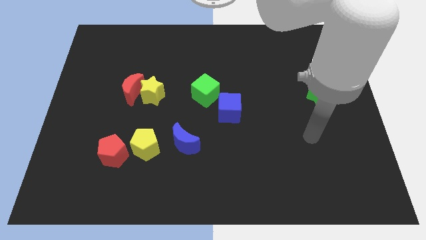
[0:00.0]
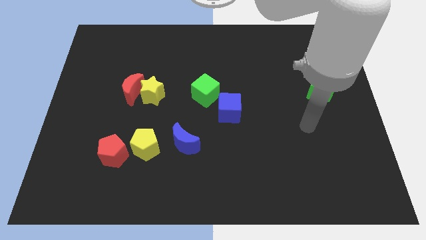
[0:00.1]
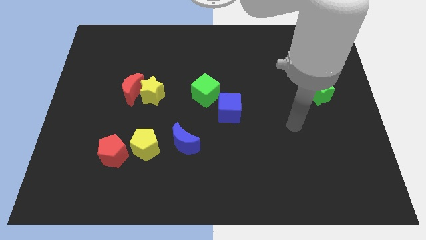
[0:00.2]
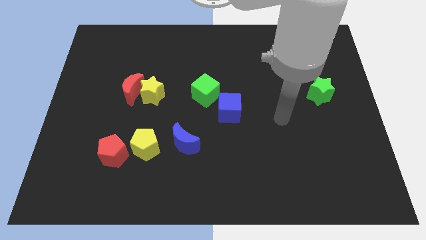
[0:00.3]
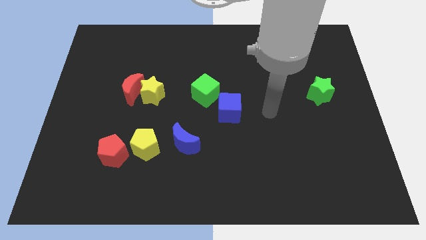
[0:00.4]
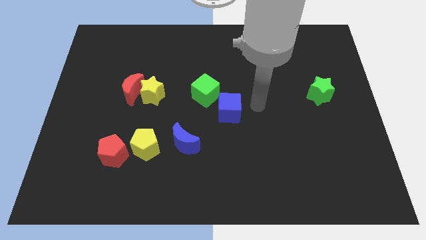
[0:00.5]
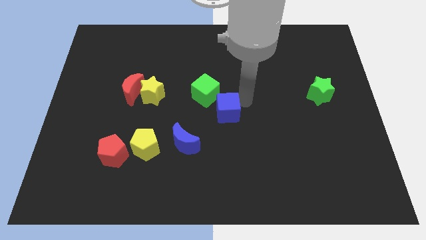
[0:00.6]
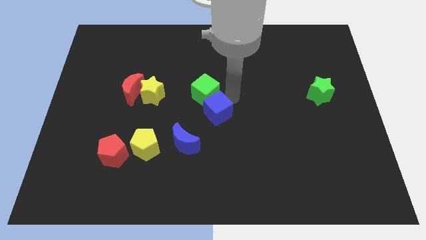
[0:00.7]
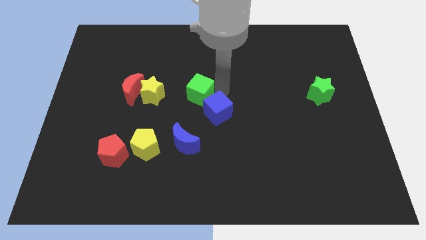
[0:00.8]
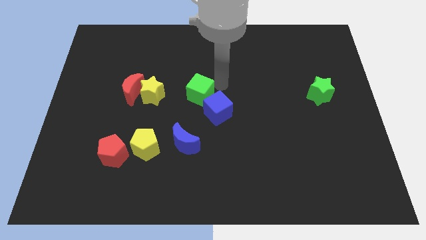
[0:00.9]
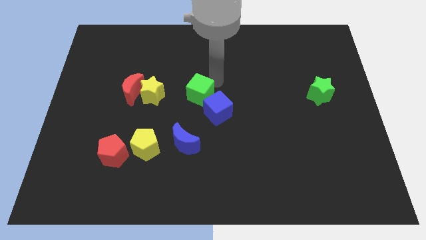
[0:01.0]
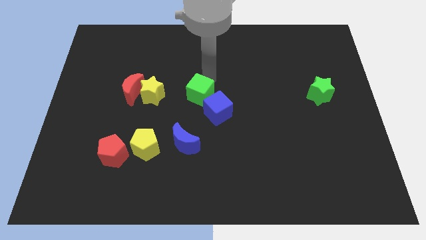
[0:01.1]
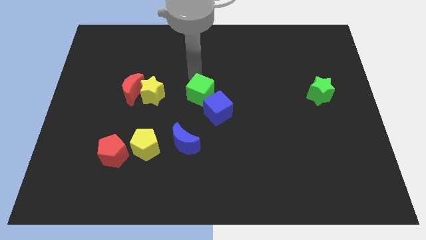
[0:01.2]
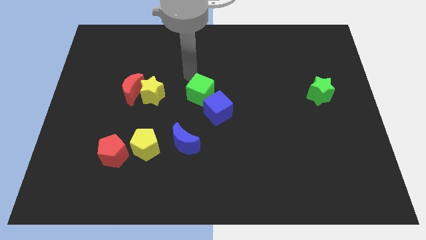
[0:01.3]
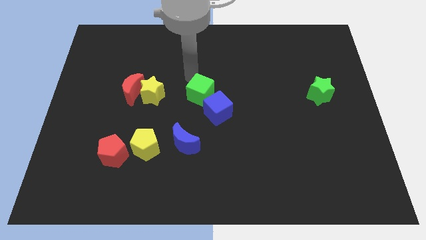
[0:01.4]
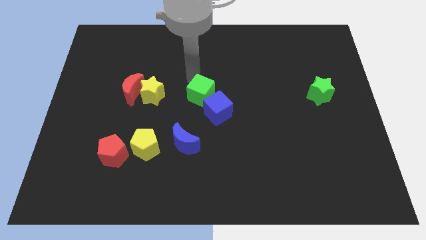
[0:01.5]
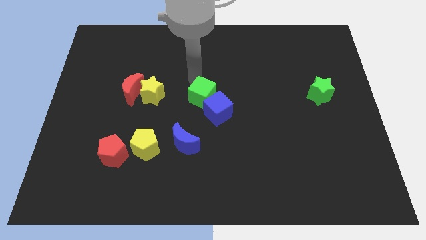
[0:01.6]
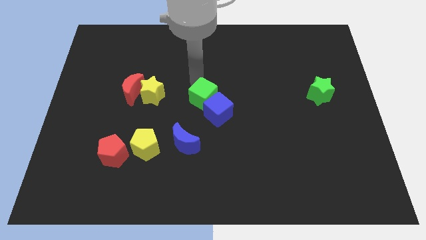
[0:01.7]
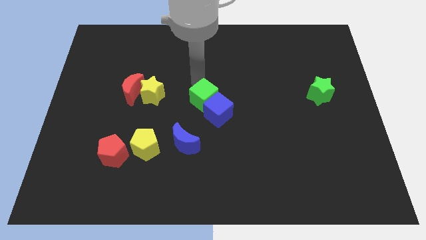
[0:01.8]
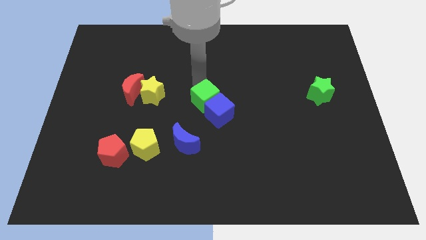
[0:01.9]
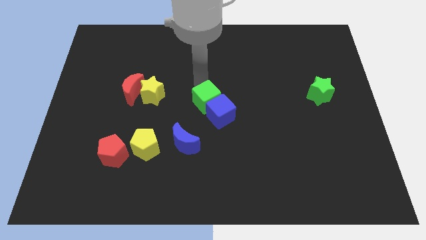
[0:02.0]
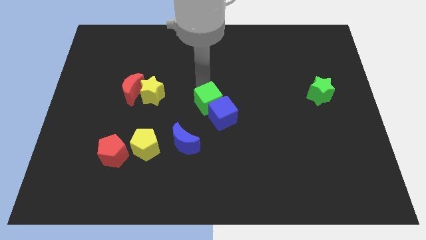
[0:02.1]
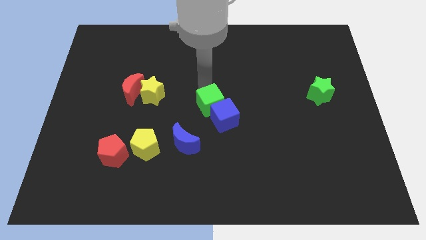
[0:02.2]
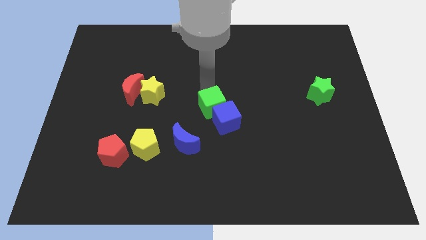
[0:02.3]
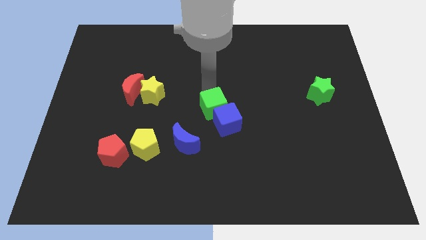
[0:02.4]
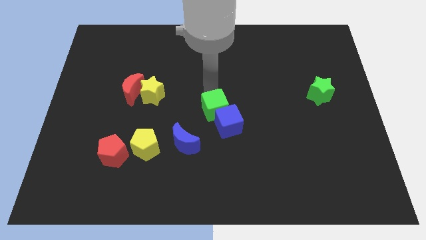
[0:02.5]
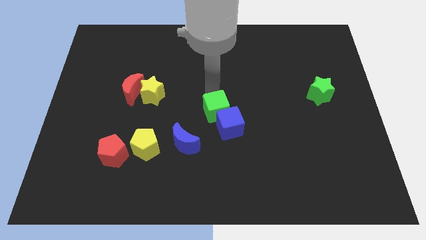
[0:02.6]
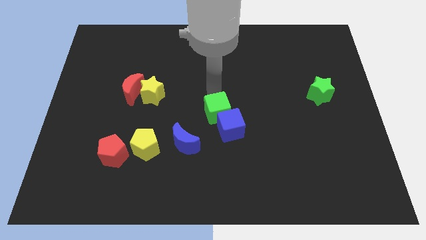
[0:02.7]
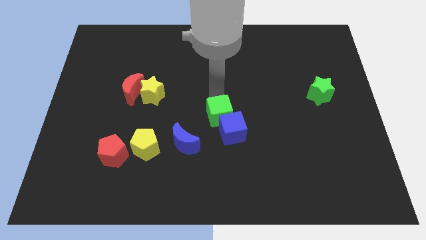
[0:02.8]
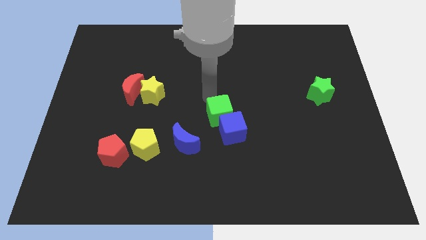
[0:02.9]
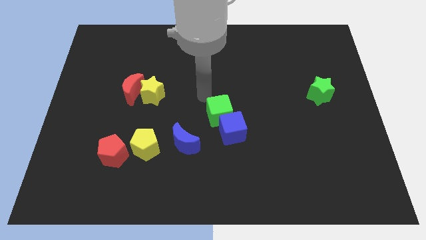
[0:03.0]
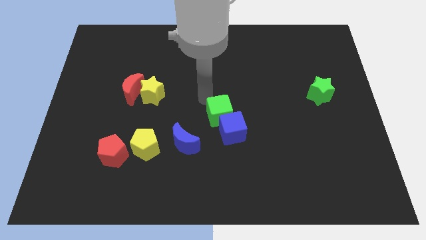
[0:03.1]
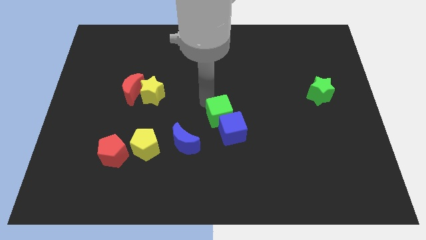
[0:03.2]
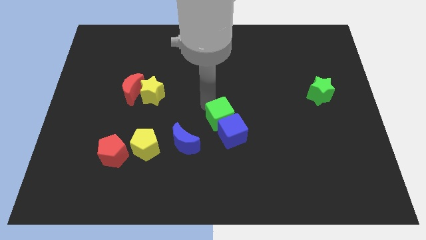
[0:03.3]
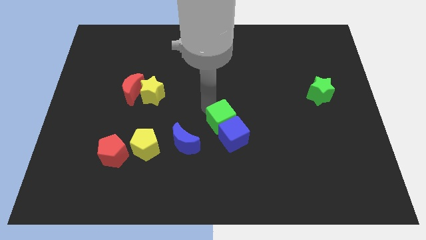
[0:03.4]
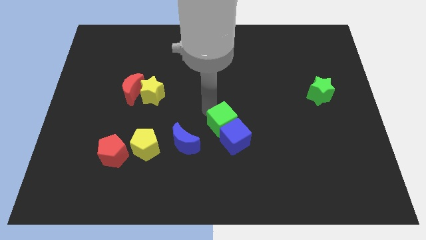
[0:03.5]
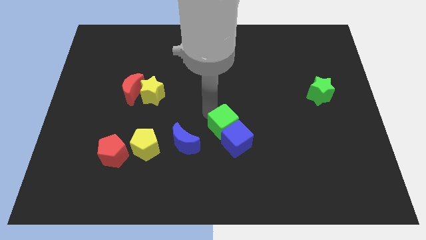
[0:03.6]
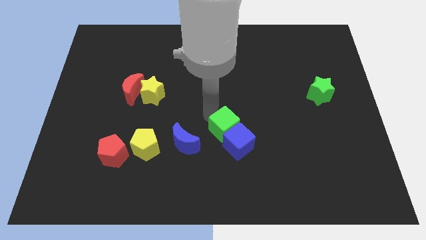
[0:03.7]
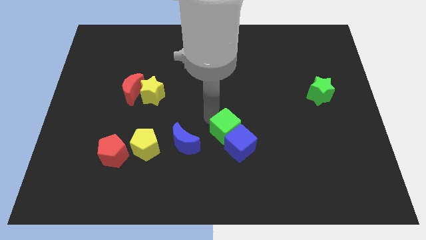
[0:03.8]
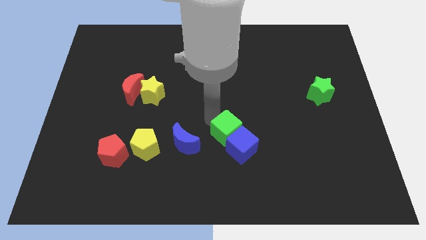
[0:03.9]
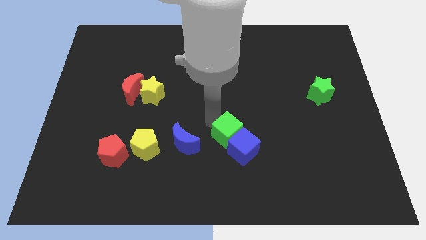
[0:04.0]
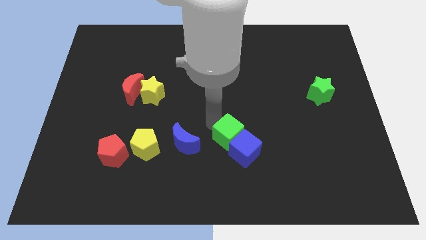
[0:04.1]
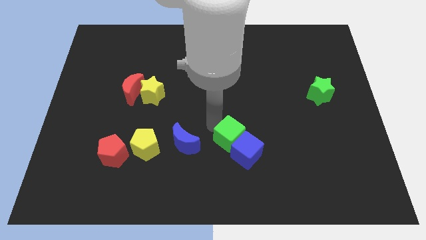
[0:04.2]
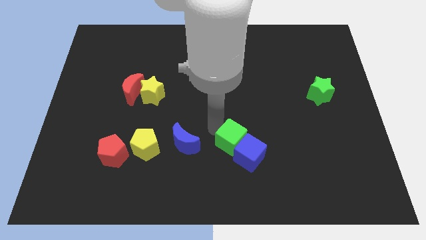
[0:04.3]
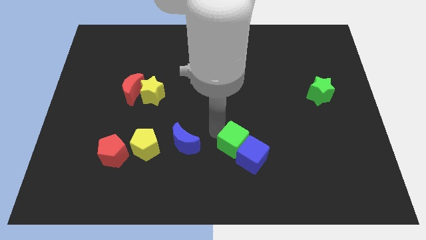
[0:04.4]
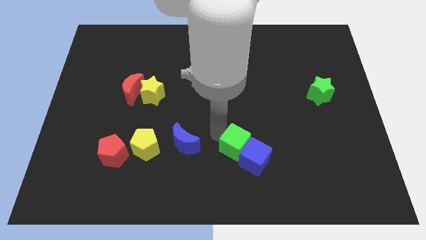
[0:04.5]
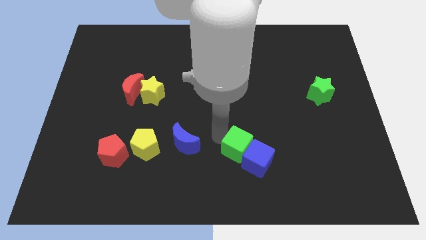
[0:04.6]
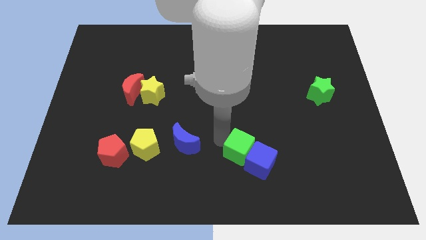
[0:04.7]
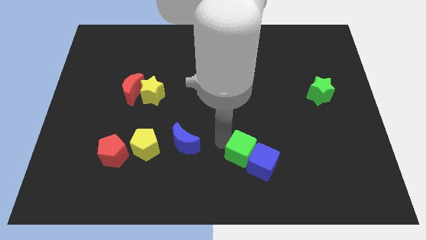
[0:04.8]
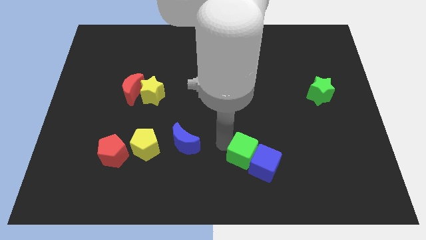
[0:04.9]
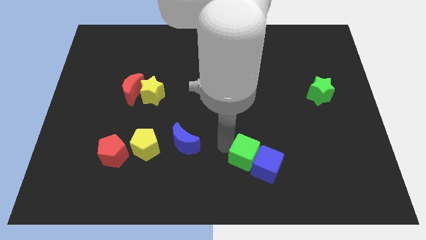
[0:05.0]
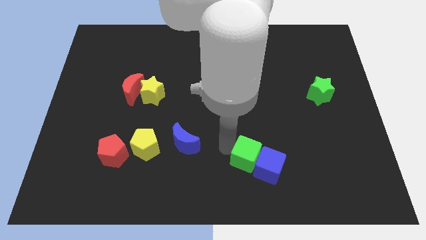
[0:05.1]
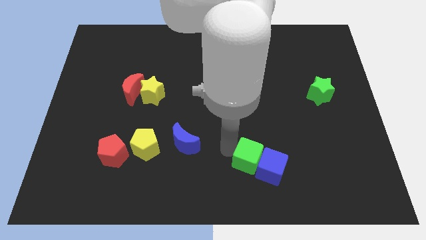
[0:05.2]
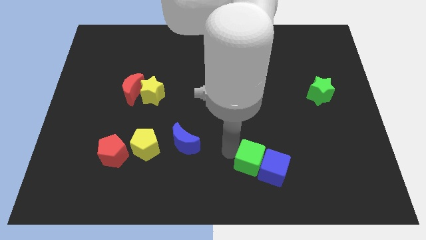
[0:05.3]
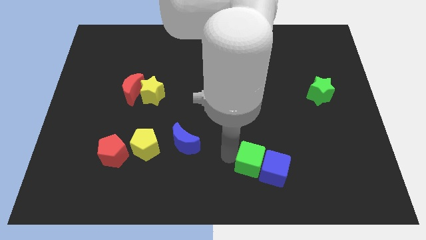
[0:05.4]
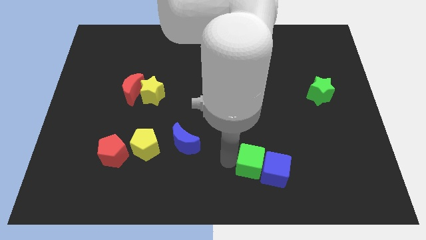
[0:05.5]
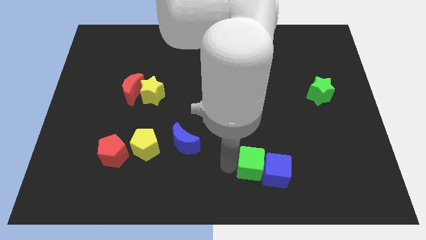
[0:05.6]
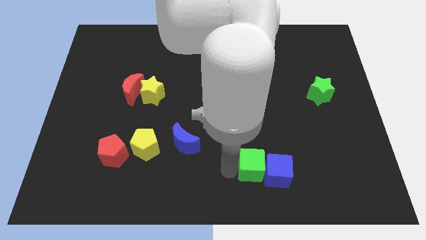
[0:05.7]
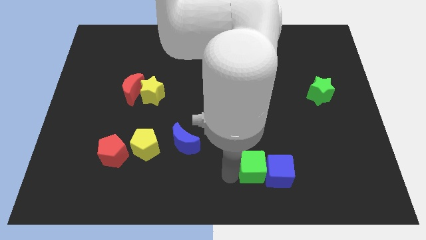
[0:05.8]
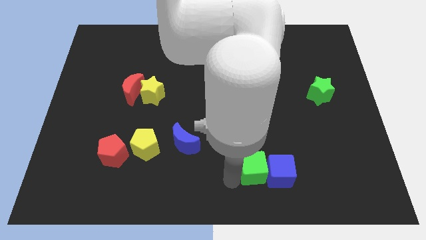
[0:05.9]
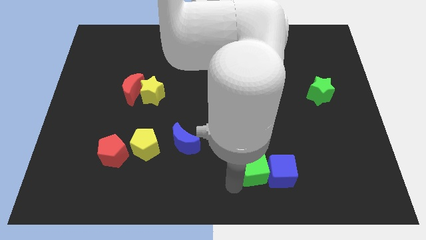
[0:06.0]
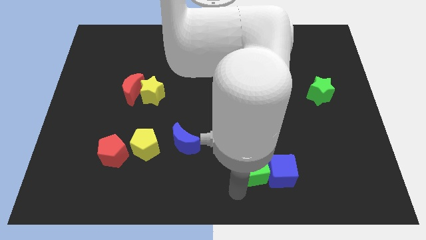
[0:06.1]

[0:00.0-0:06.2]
push the green cube down and then to the right

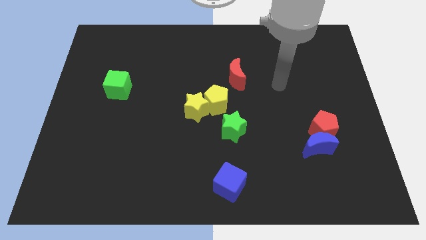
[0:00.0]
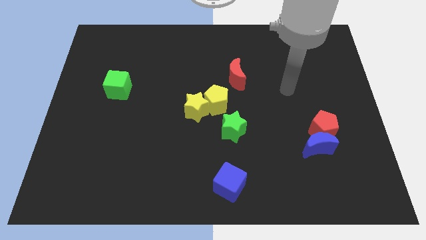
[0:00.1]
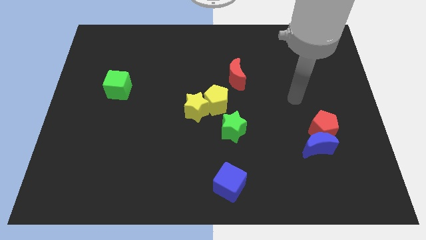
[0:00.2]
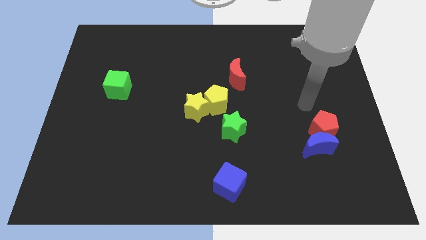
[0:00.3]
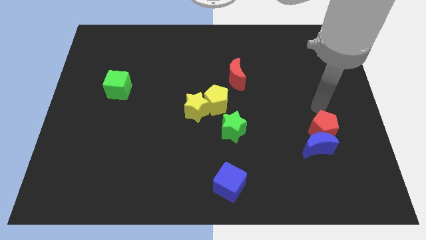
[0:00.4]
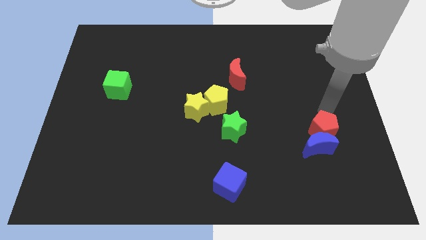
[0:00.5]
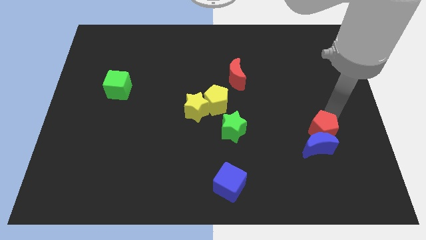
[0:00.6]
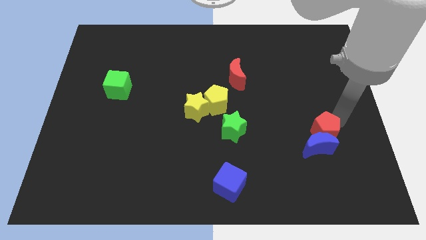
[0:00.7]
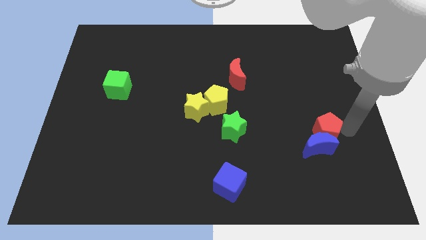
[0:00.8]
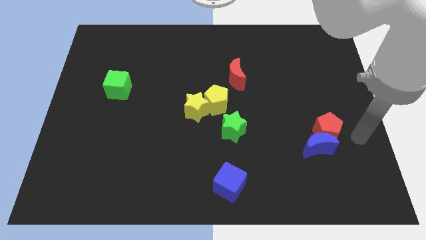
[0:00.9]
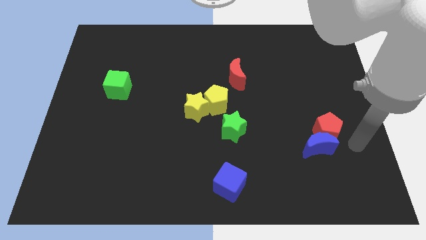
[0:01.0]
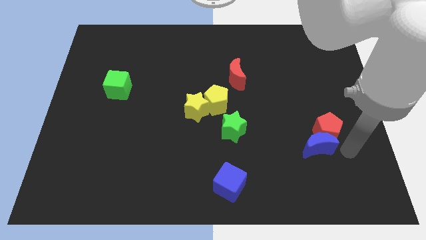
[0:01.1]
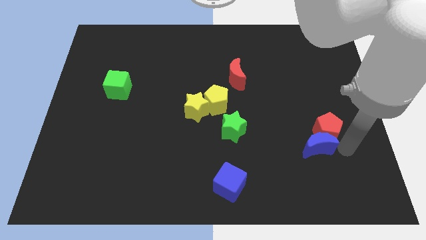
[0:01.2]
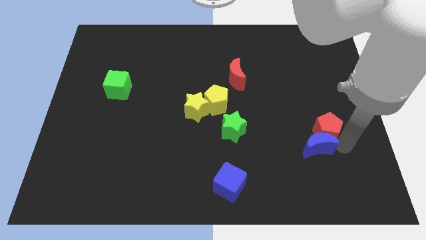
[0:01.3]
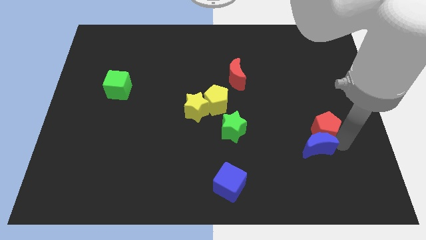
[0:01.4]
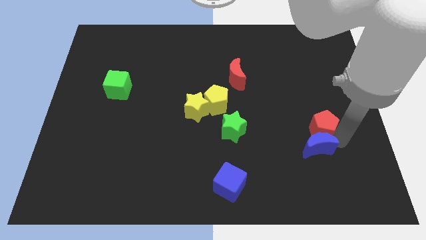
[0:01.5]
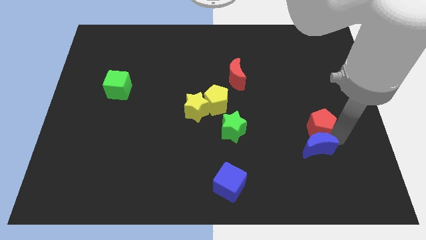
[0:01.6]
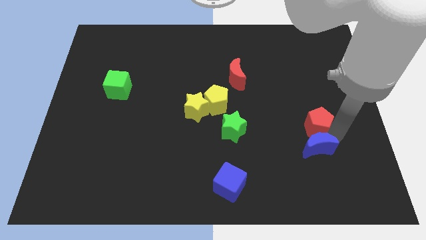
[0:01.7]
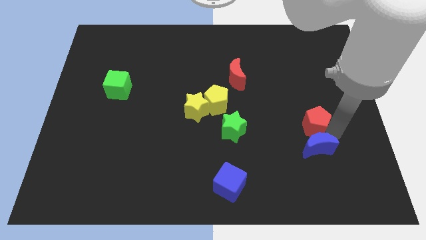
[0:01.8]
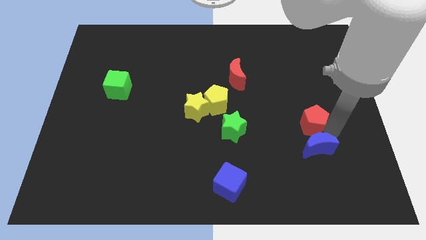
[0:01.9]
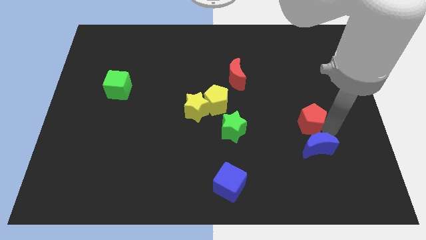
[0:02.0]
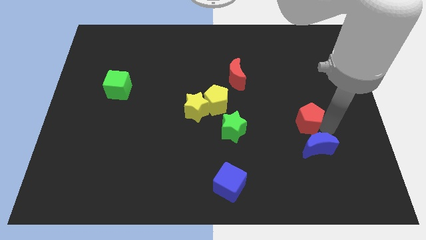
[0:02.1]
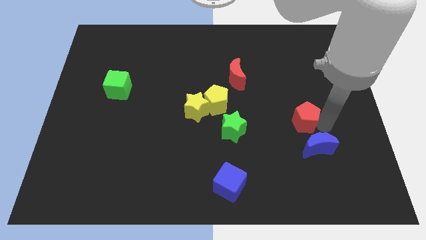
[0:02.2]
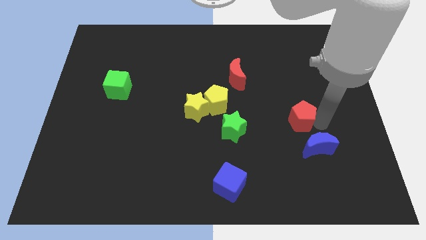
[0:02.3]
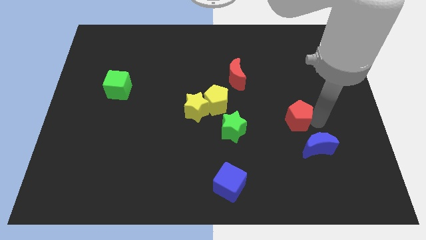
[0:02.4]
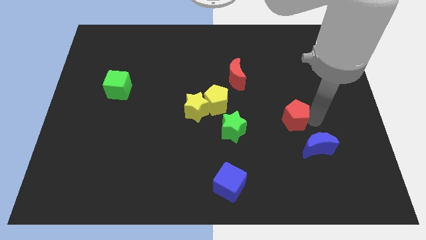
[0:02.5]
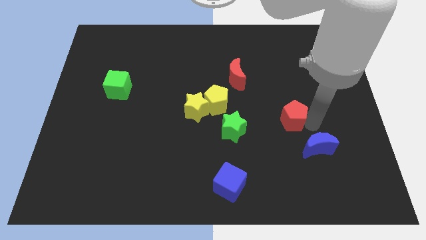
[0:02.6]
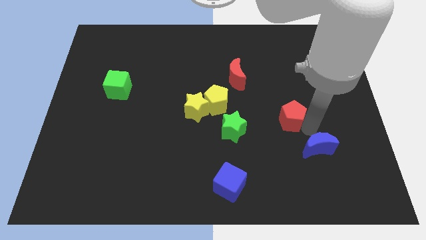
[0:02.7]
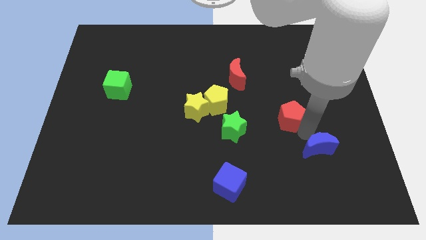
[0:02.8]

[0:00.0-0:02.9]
slightly move the red pentagon up and left diagonally
